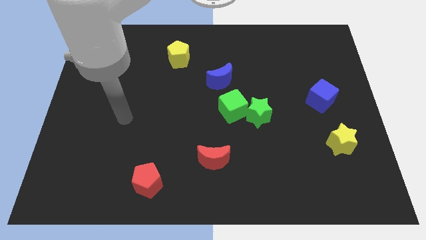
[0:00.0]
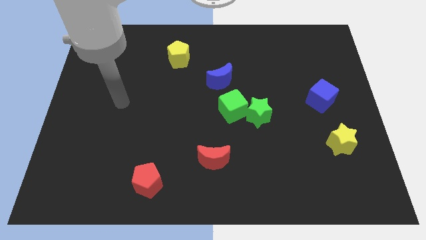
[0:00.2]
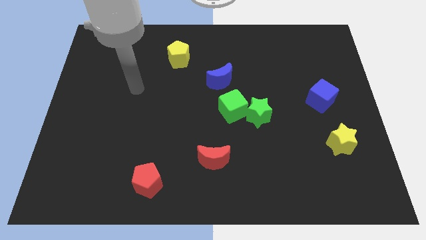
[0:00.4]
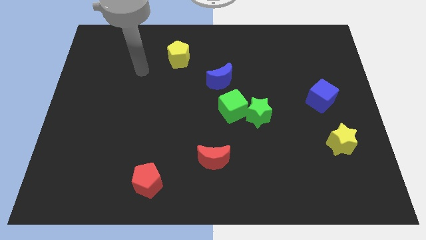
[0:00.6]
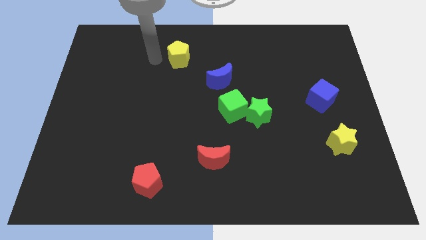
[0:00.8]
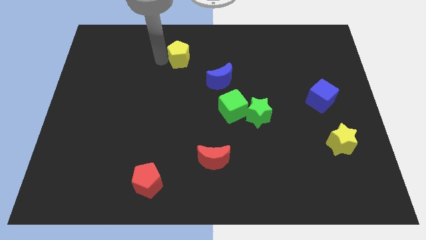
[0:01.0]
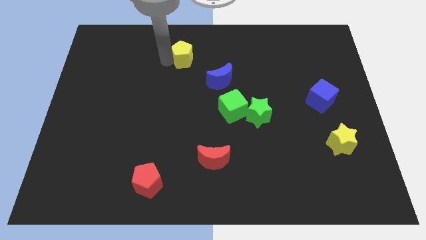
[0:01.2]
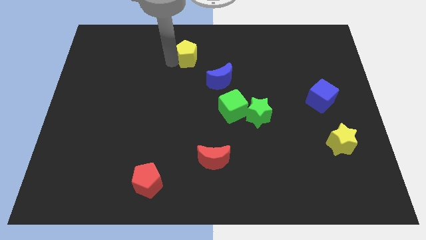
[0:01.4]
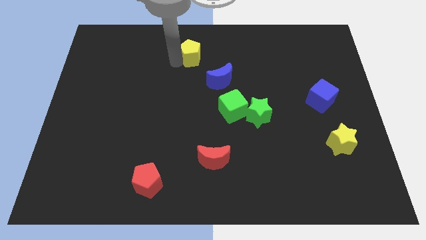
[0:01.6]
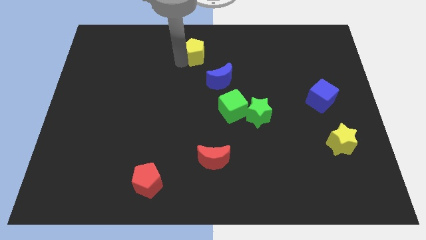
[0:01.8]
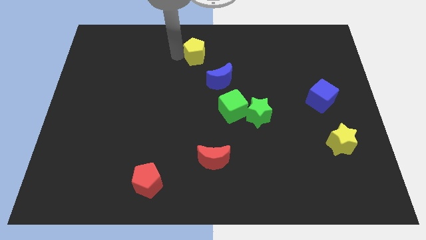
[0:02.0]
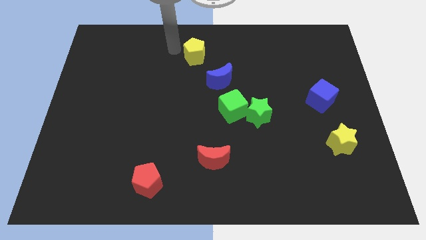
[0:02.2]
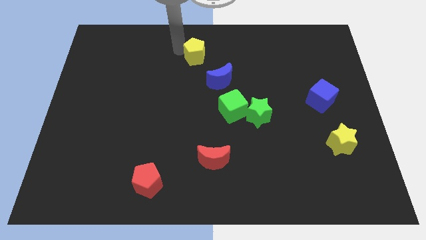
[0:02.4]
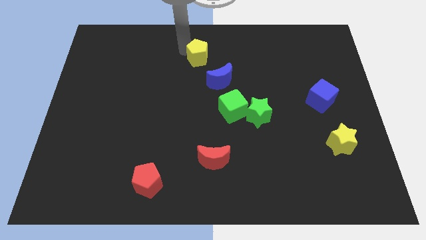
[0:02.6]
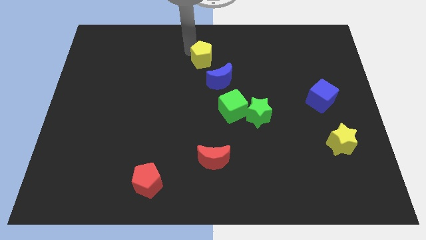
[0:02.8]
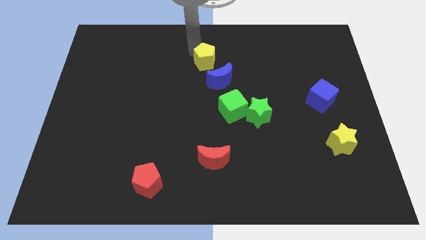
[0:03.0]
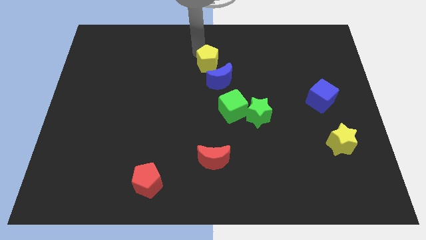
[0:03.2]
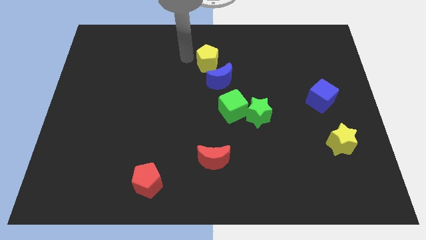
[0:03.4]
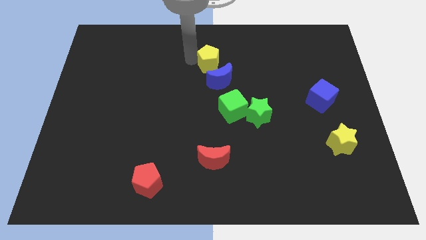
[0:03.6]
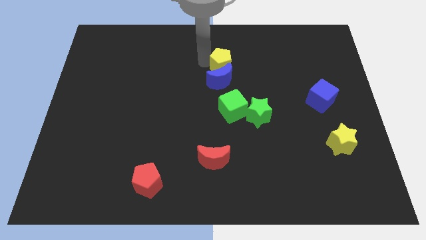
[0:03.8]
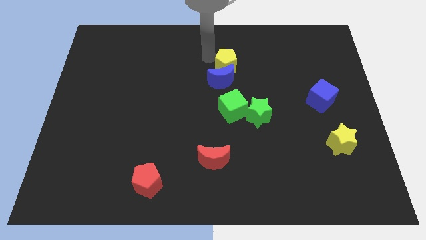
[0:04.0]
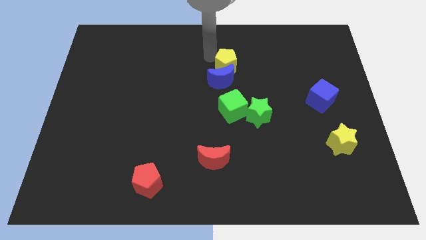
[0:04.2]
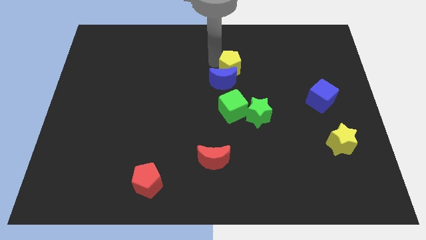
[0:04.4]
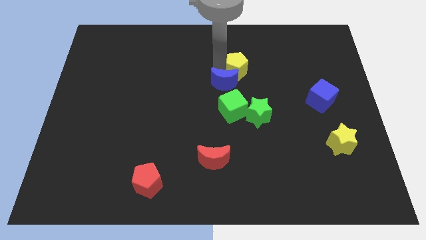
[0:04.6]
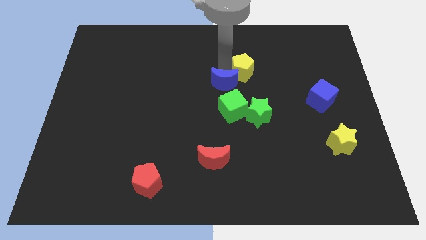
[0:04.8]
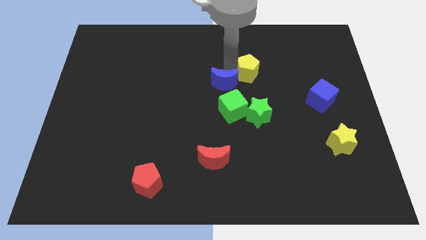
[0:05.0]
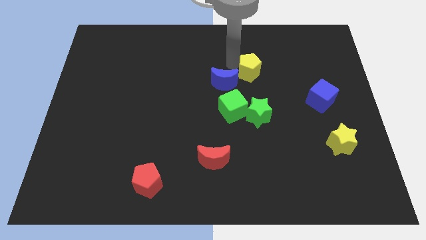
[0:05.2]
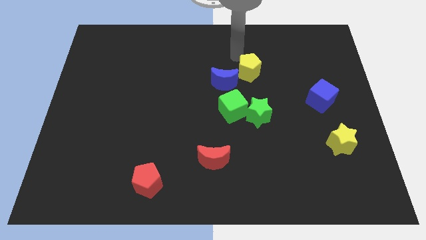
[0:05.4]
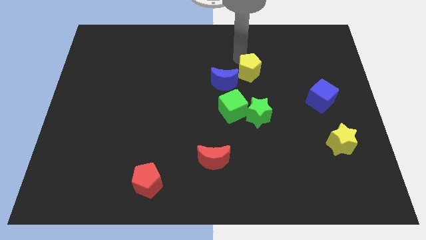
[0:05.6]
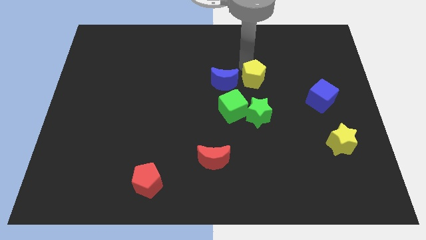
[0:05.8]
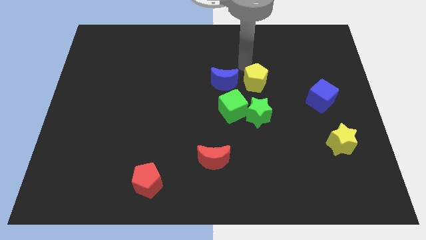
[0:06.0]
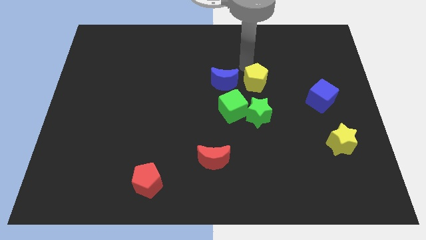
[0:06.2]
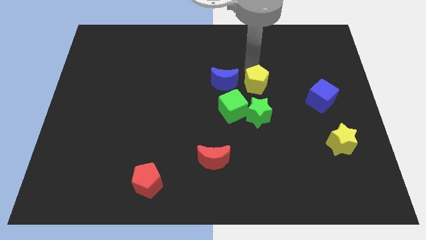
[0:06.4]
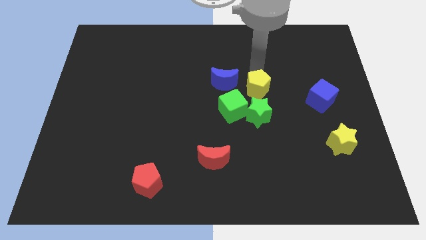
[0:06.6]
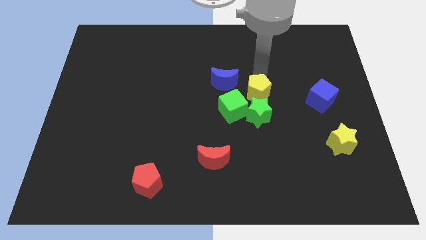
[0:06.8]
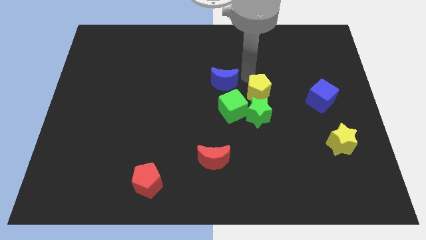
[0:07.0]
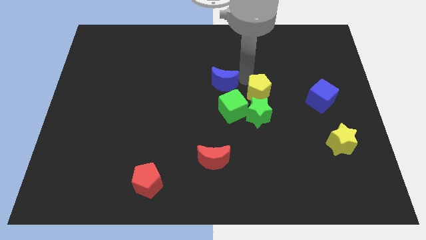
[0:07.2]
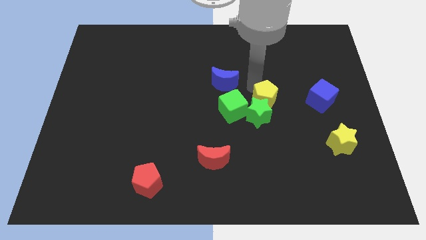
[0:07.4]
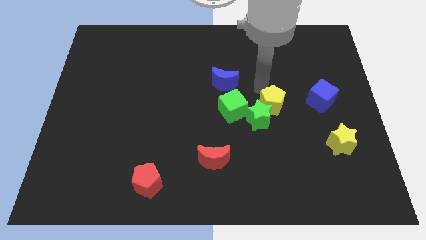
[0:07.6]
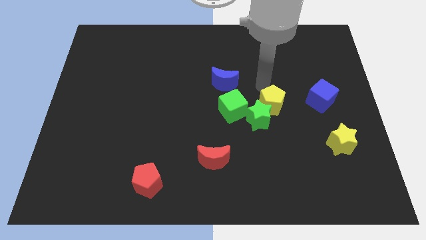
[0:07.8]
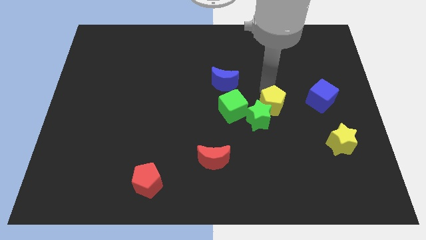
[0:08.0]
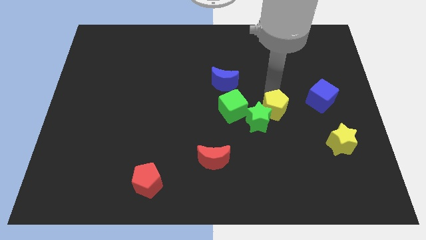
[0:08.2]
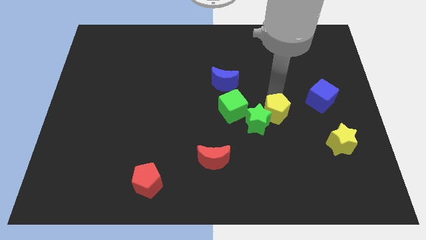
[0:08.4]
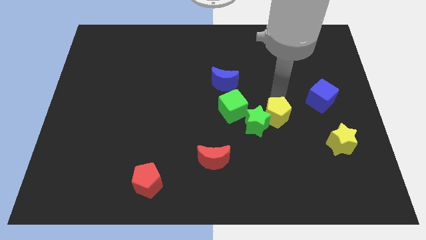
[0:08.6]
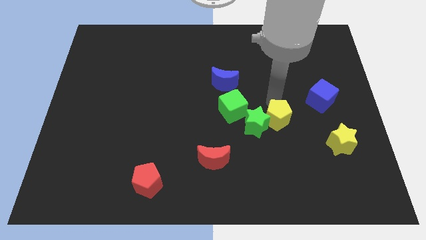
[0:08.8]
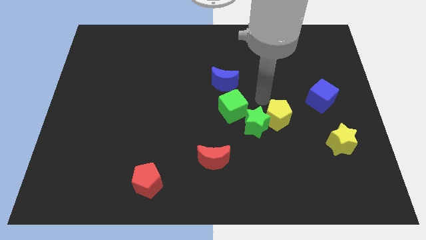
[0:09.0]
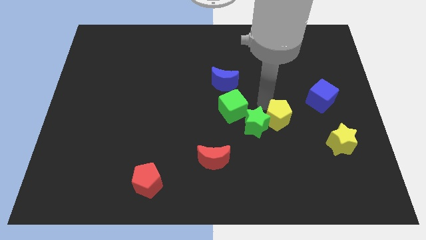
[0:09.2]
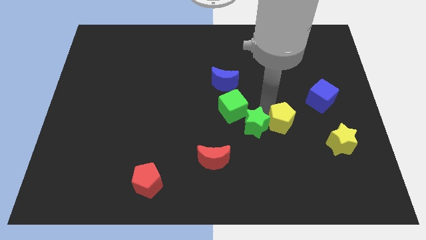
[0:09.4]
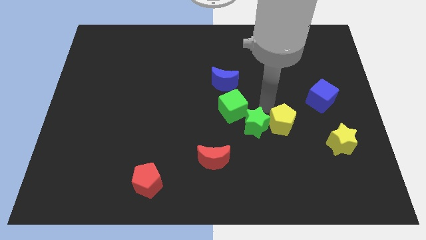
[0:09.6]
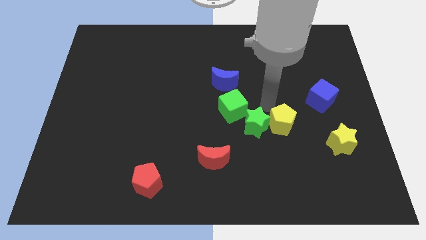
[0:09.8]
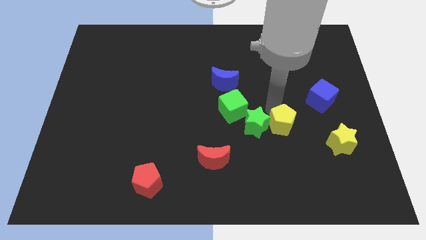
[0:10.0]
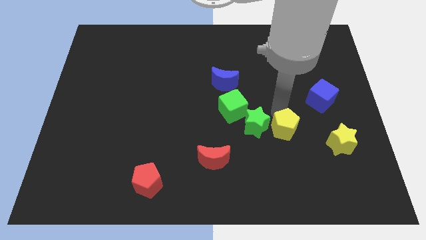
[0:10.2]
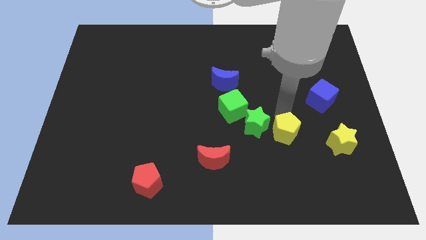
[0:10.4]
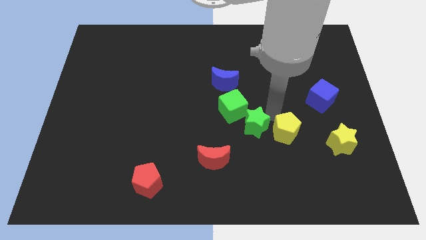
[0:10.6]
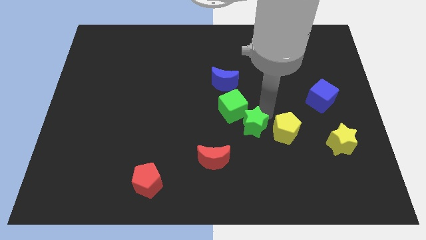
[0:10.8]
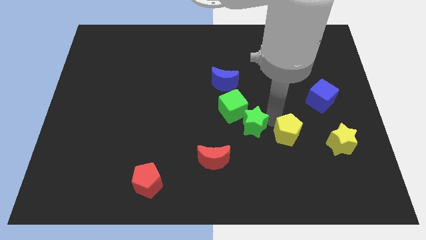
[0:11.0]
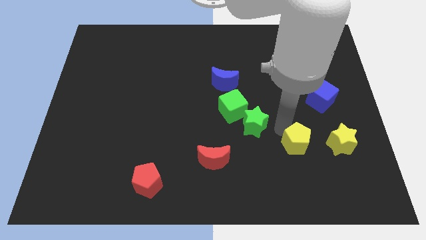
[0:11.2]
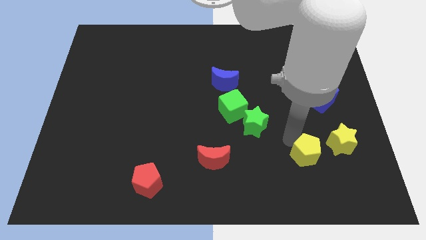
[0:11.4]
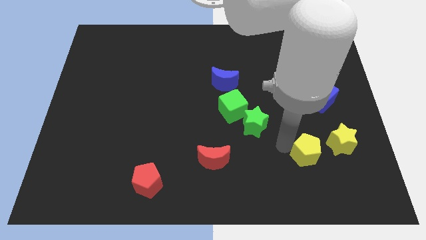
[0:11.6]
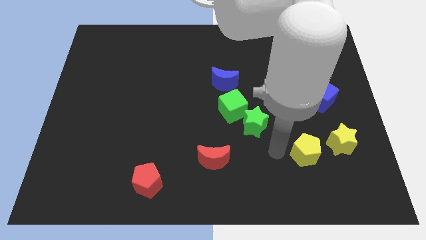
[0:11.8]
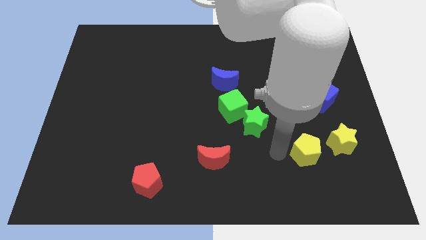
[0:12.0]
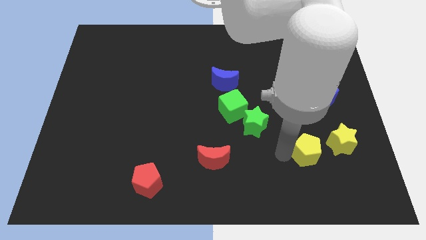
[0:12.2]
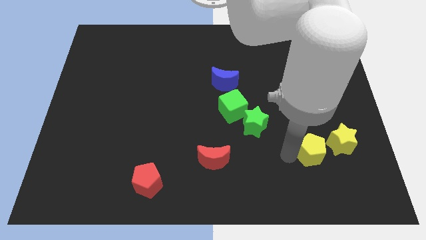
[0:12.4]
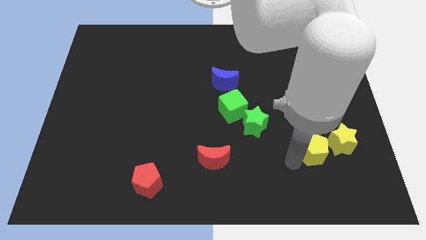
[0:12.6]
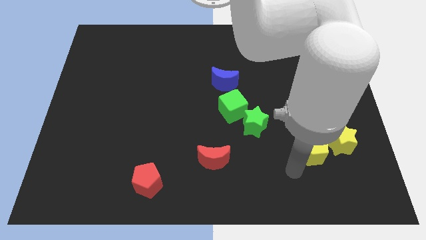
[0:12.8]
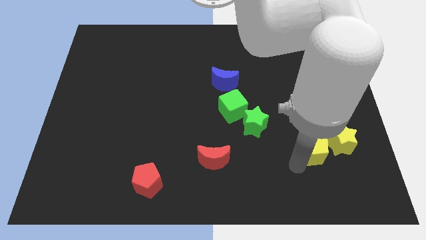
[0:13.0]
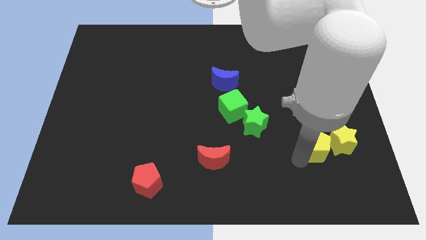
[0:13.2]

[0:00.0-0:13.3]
push the yellow pentagon to the bottom side of the blue cube

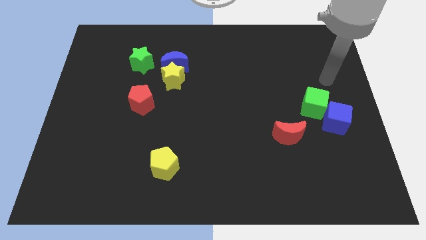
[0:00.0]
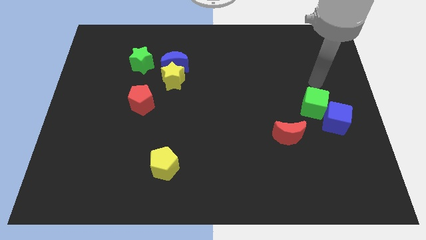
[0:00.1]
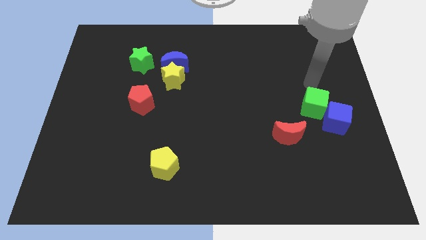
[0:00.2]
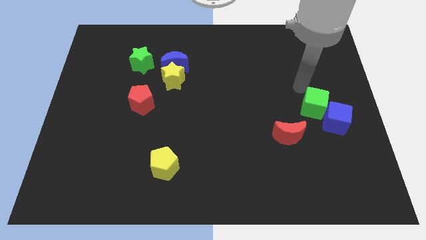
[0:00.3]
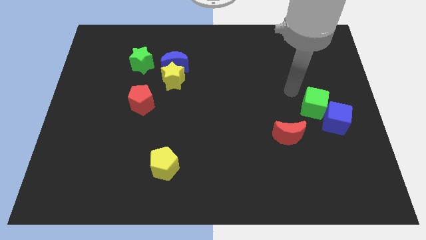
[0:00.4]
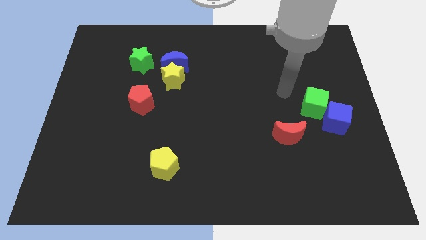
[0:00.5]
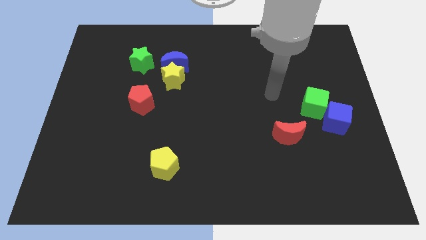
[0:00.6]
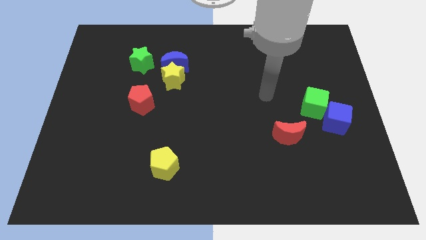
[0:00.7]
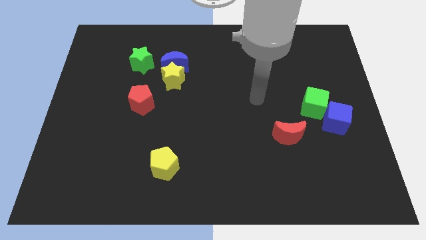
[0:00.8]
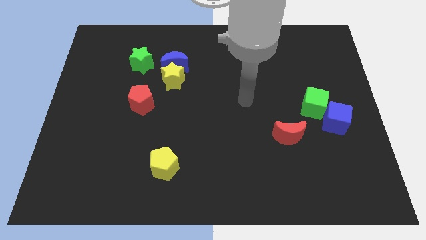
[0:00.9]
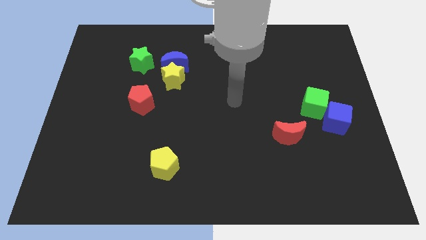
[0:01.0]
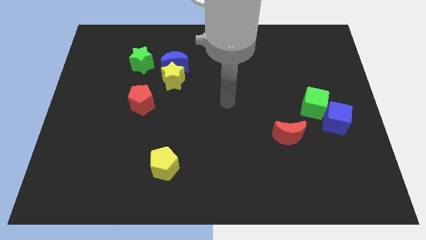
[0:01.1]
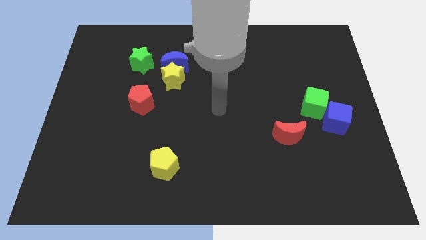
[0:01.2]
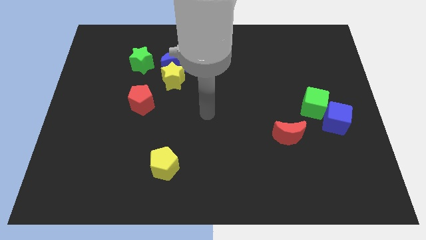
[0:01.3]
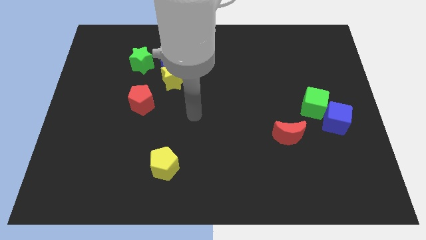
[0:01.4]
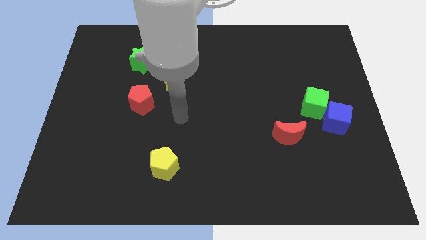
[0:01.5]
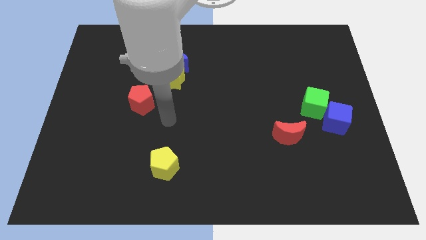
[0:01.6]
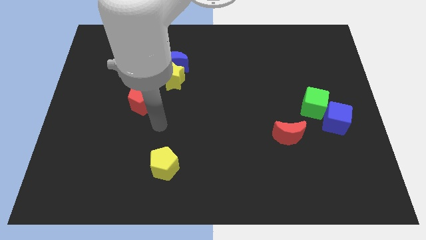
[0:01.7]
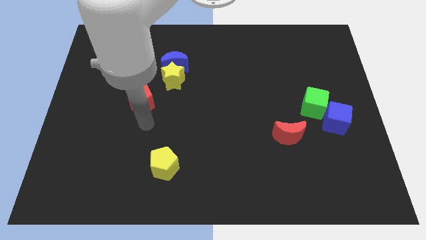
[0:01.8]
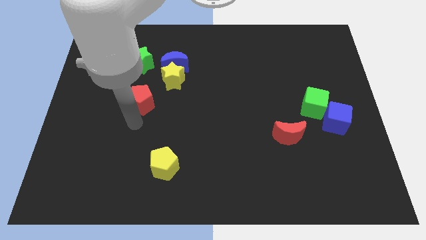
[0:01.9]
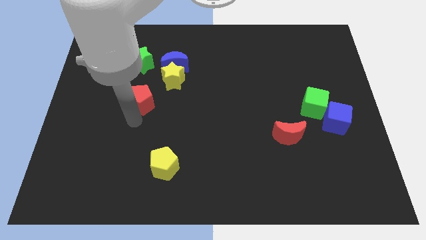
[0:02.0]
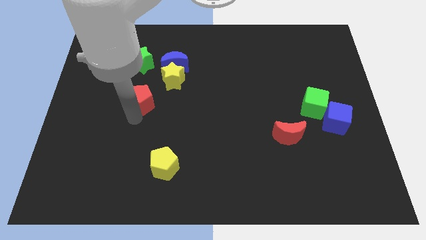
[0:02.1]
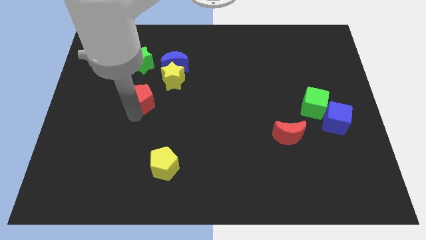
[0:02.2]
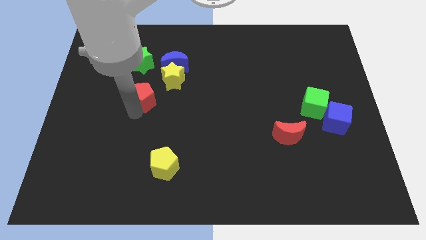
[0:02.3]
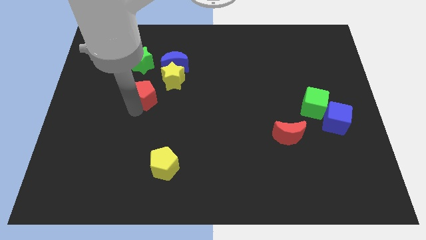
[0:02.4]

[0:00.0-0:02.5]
move the red pentagon to the bottom left side of the blue moon
